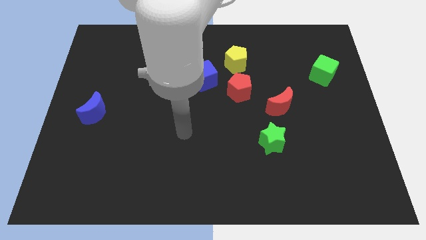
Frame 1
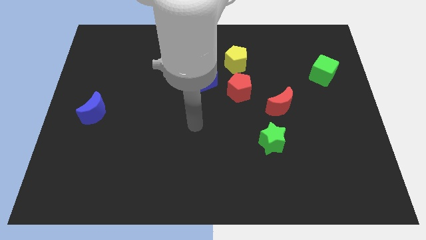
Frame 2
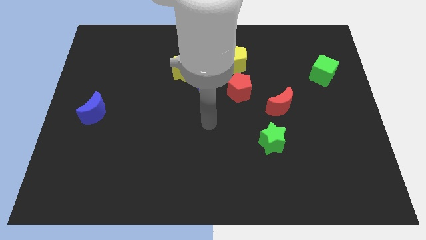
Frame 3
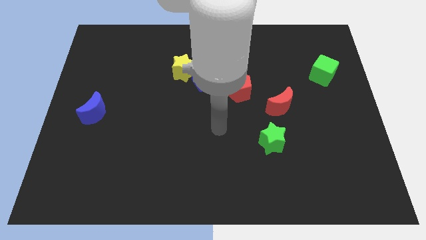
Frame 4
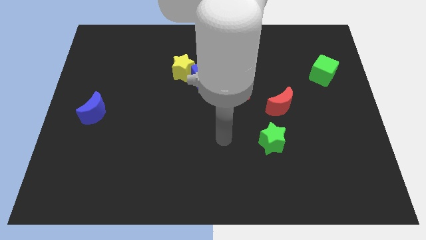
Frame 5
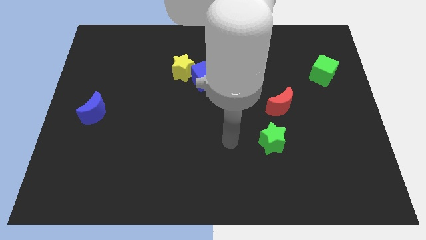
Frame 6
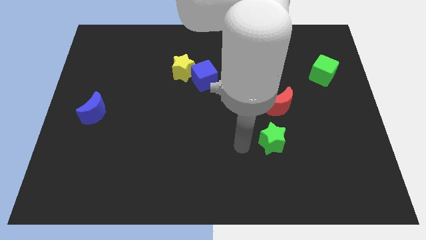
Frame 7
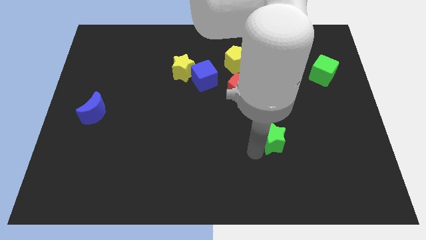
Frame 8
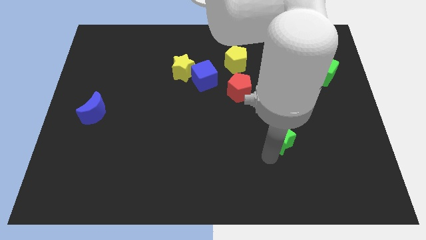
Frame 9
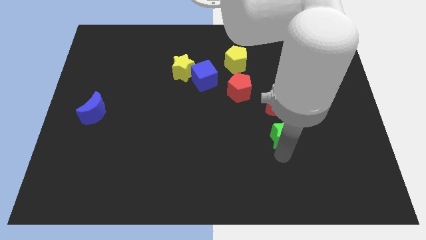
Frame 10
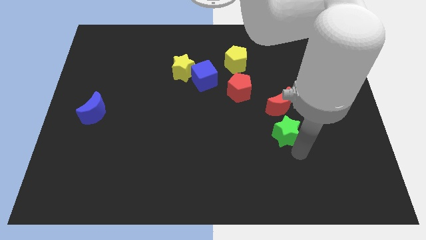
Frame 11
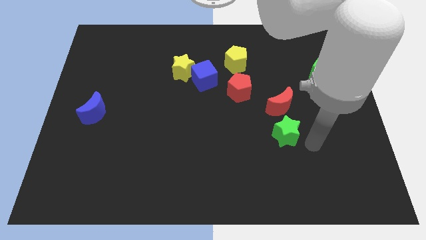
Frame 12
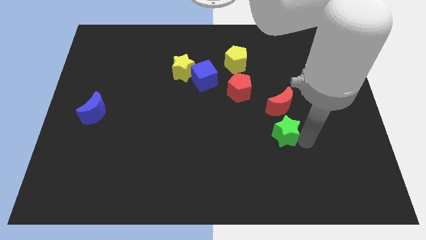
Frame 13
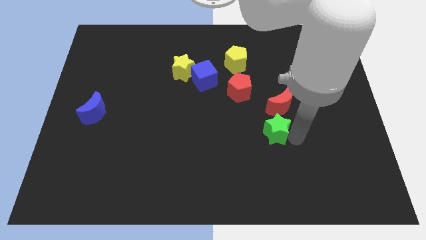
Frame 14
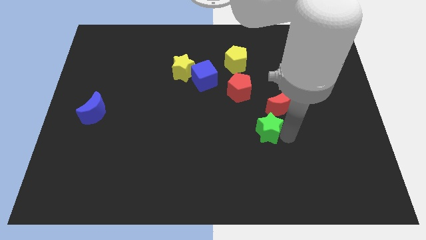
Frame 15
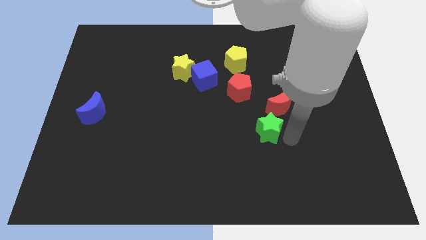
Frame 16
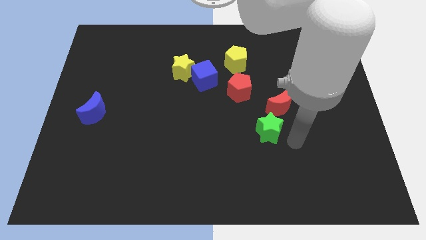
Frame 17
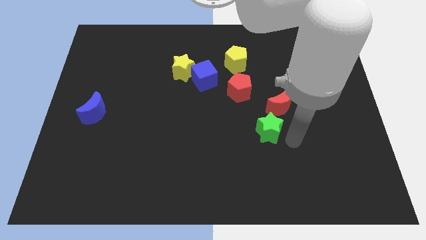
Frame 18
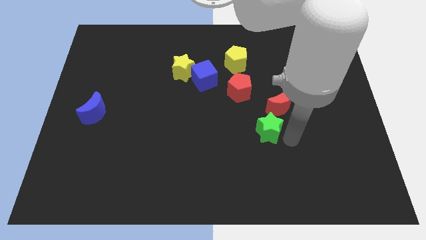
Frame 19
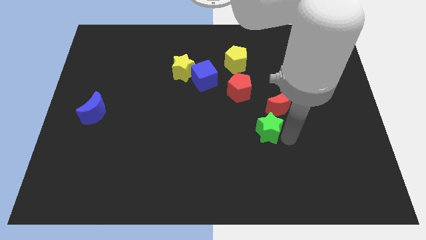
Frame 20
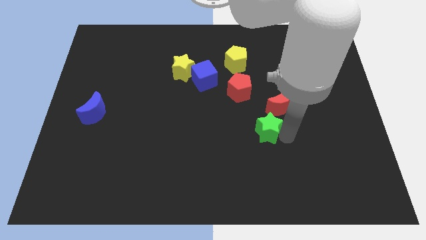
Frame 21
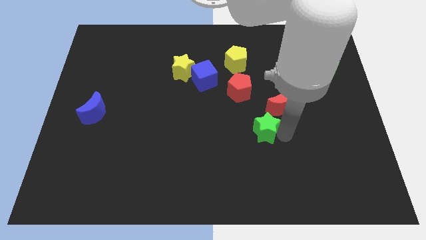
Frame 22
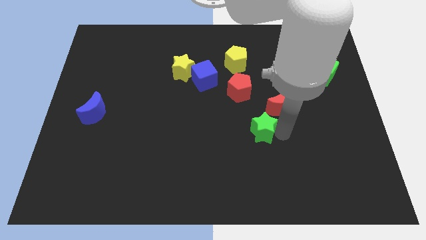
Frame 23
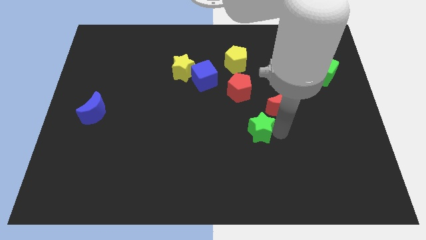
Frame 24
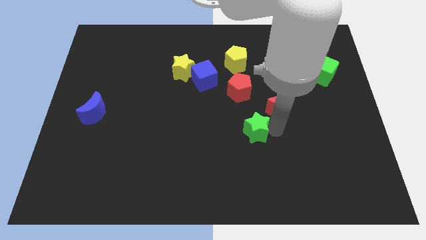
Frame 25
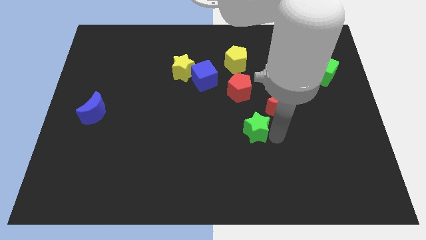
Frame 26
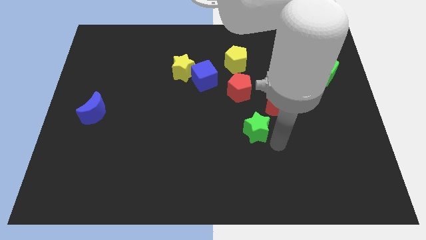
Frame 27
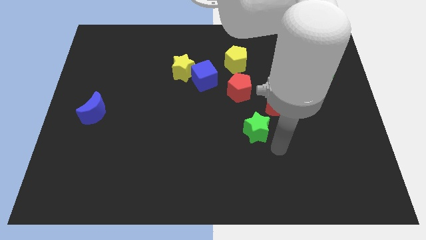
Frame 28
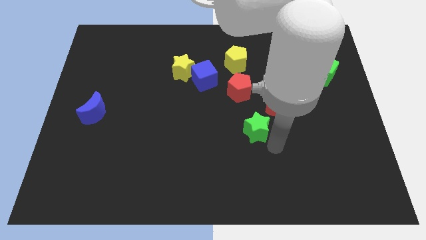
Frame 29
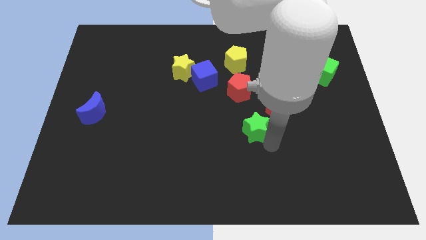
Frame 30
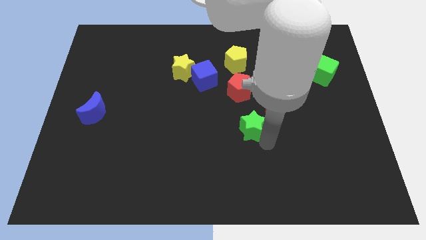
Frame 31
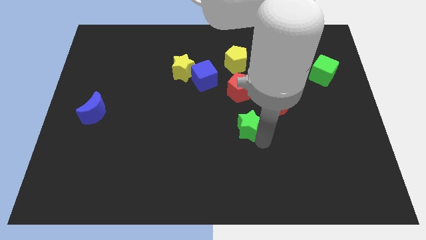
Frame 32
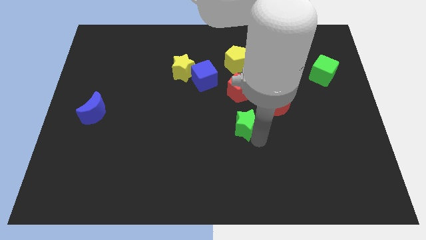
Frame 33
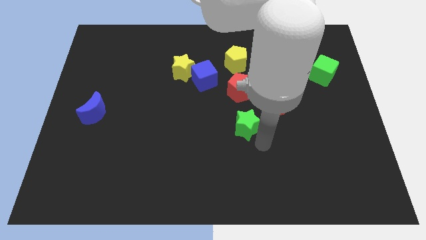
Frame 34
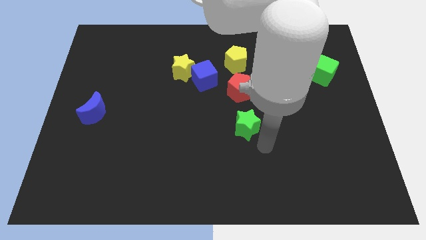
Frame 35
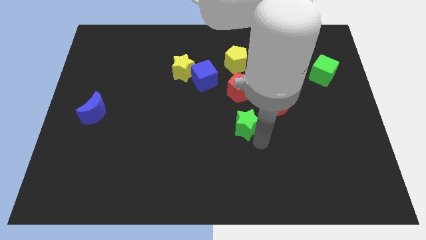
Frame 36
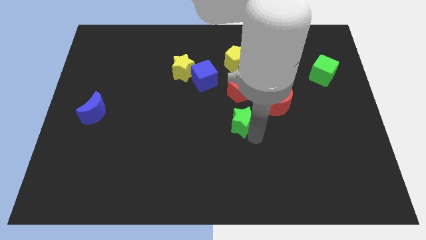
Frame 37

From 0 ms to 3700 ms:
move the green star up and to the left diagonally a bit

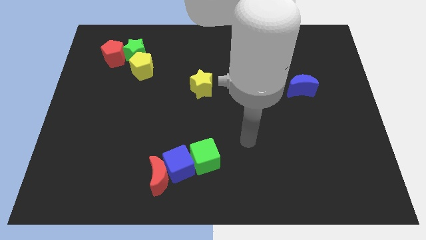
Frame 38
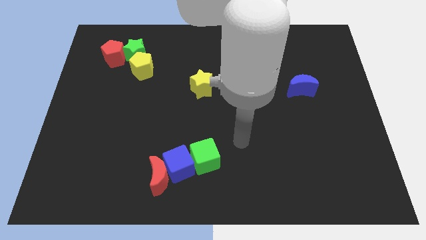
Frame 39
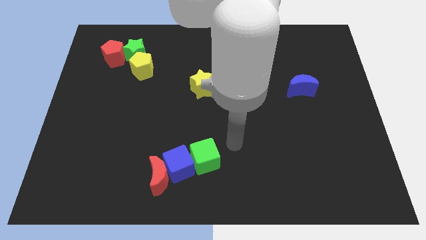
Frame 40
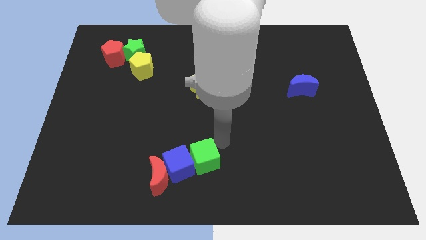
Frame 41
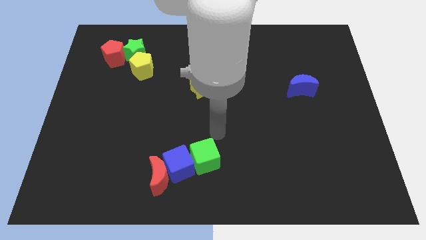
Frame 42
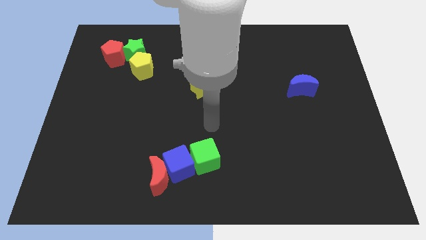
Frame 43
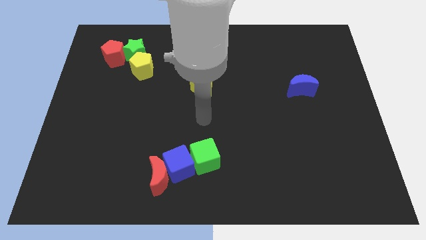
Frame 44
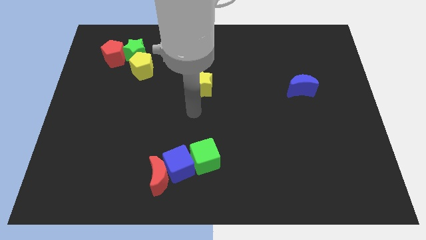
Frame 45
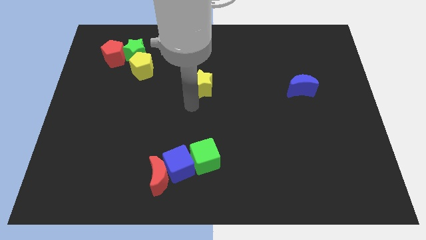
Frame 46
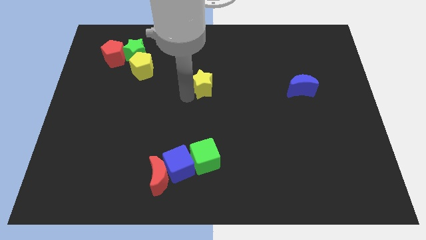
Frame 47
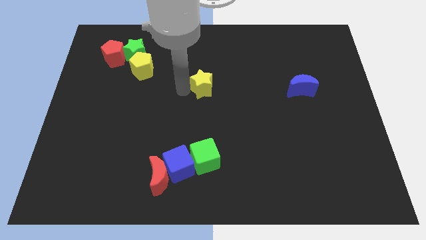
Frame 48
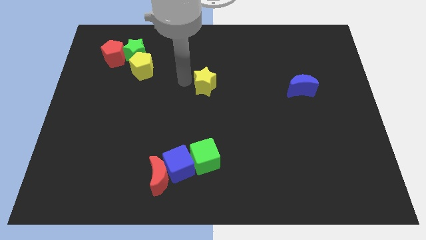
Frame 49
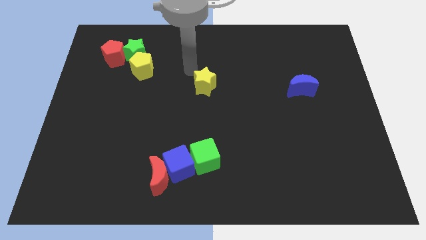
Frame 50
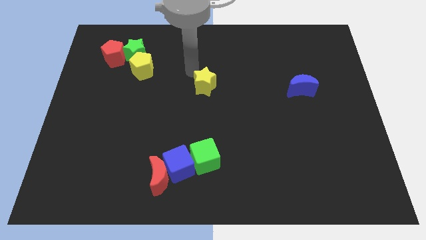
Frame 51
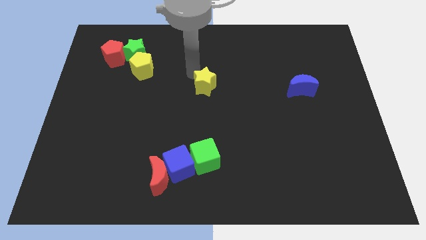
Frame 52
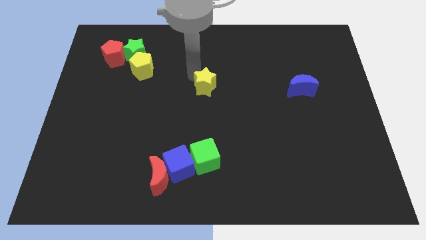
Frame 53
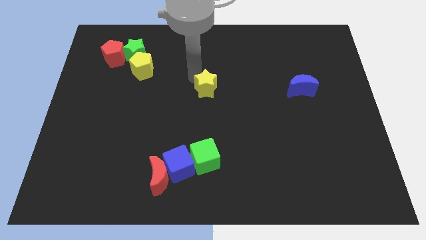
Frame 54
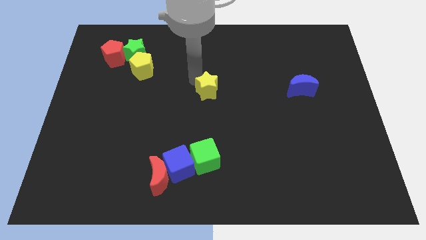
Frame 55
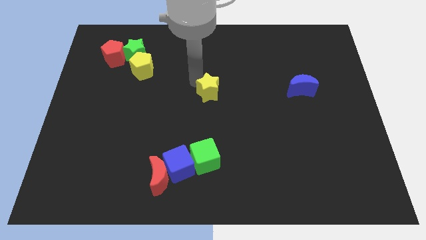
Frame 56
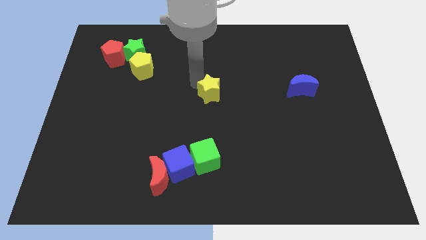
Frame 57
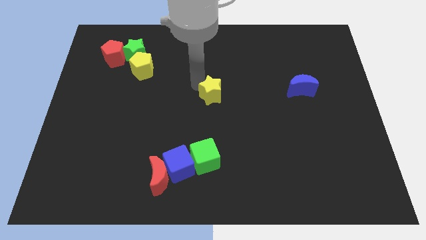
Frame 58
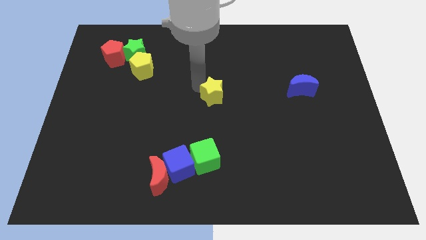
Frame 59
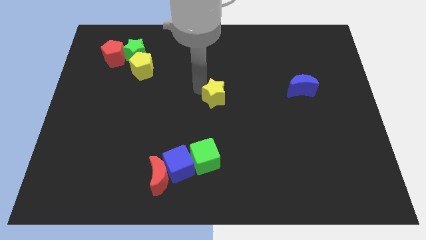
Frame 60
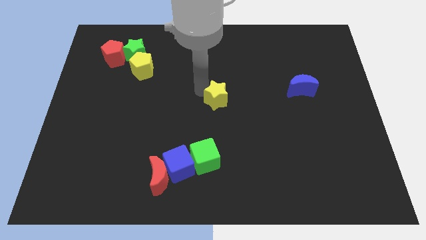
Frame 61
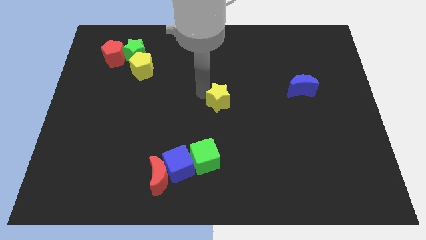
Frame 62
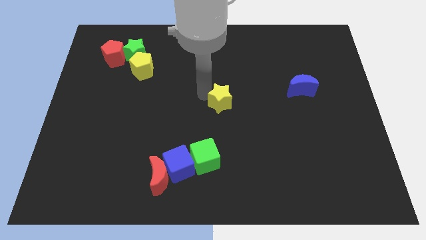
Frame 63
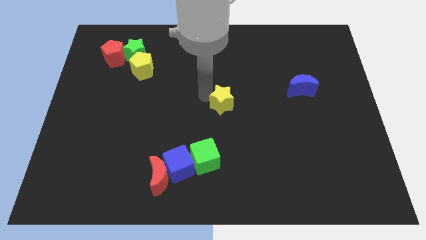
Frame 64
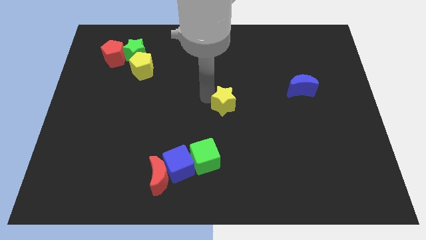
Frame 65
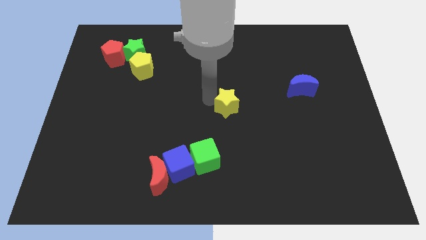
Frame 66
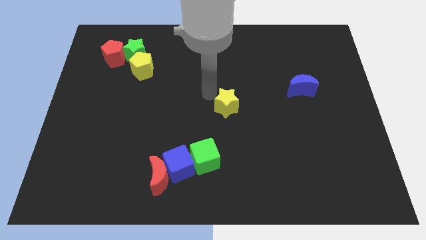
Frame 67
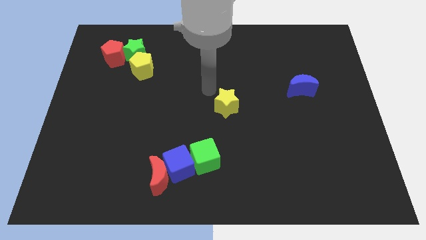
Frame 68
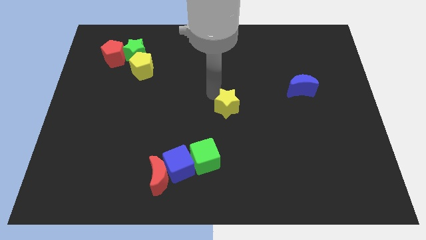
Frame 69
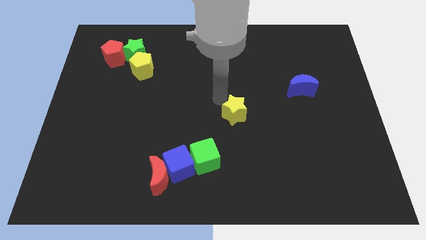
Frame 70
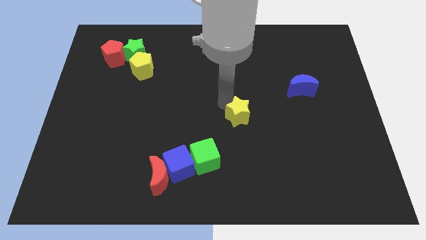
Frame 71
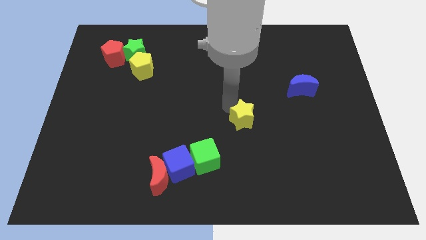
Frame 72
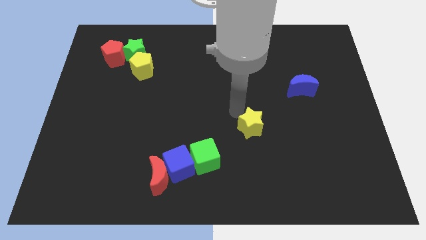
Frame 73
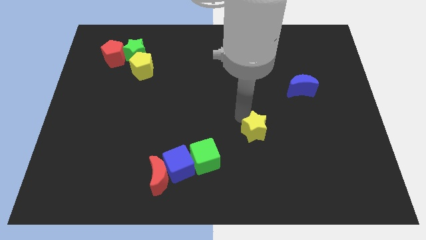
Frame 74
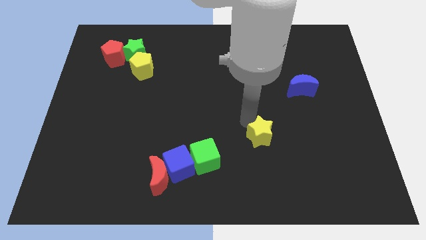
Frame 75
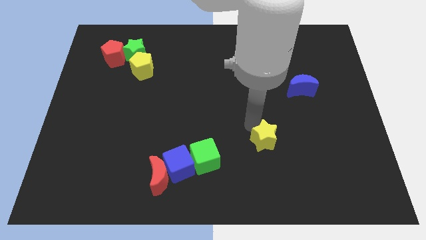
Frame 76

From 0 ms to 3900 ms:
move the yellow star downwards and right

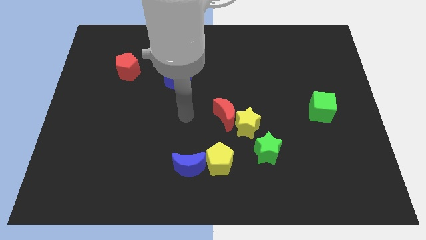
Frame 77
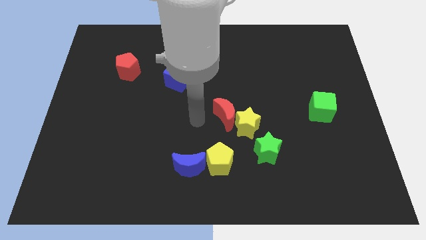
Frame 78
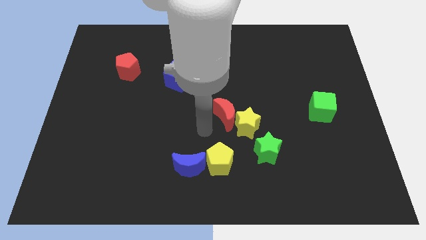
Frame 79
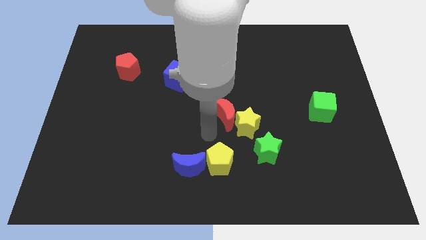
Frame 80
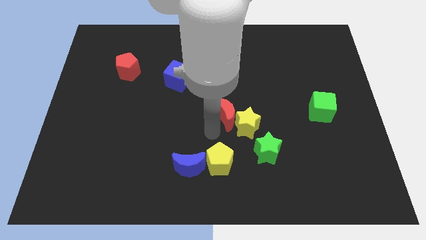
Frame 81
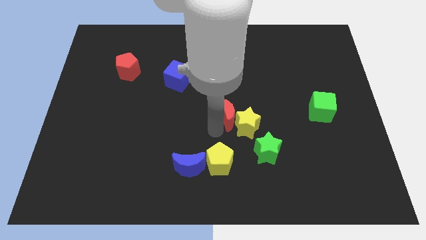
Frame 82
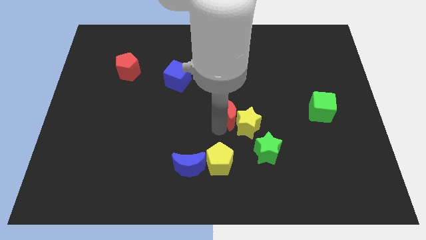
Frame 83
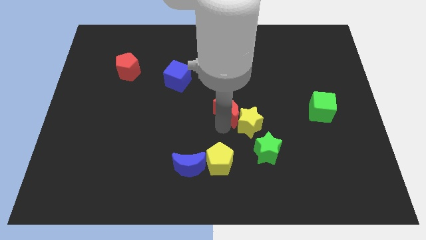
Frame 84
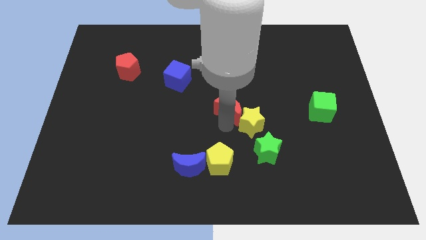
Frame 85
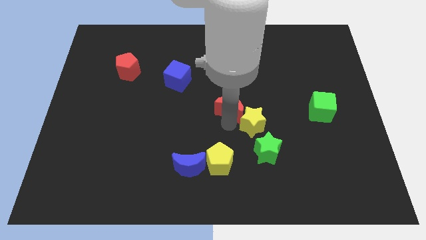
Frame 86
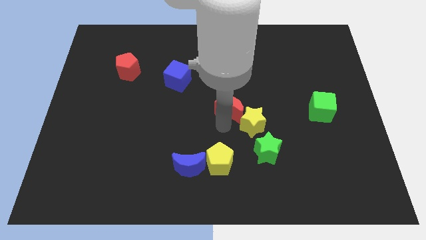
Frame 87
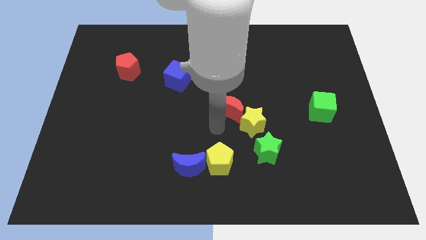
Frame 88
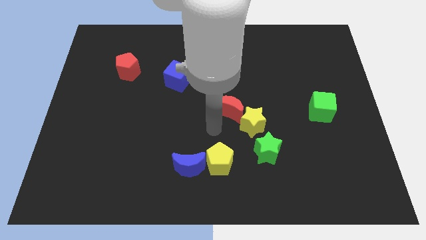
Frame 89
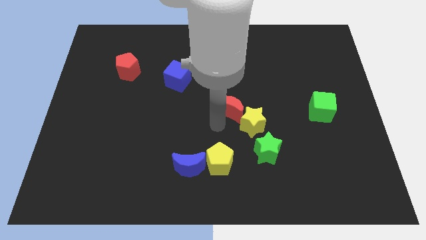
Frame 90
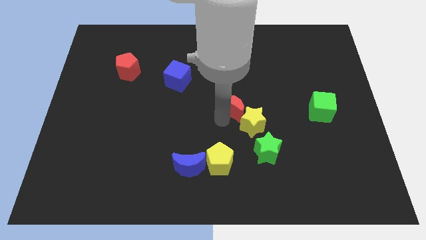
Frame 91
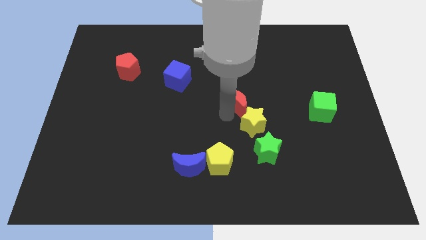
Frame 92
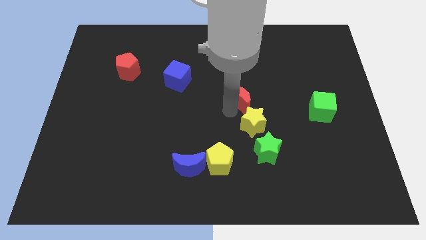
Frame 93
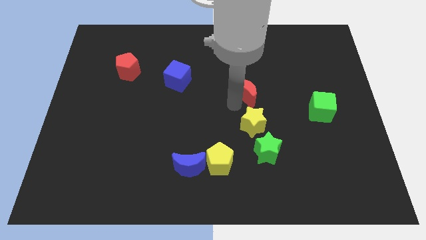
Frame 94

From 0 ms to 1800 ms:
move the red moon upwards and right a little
